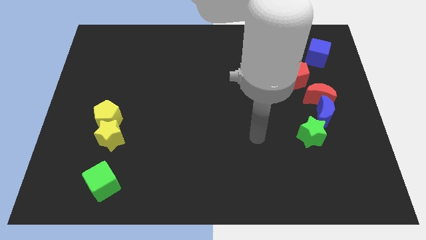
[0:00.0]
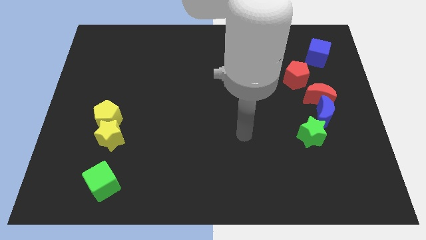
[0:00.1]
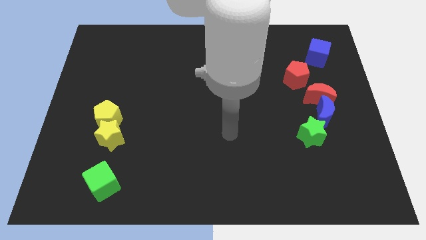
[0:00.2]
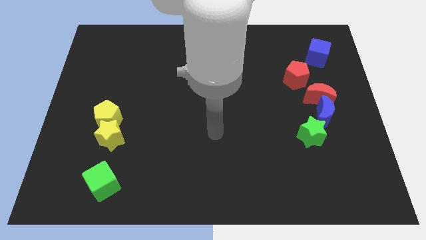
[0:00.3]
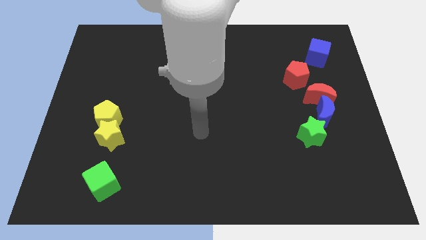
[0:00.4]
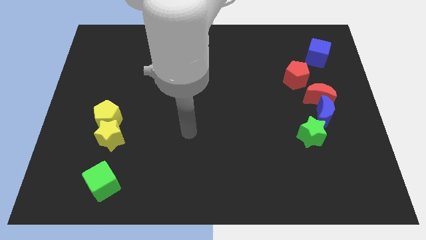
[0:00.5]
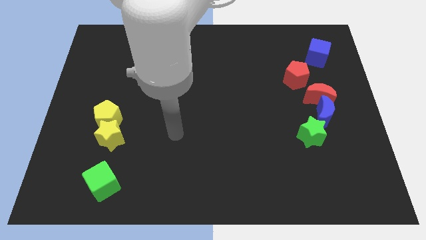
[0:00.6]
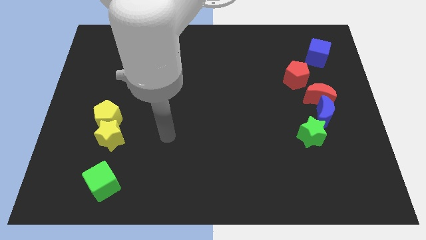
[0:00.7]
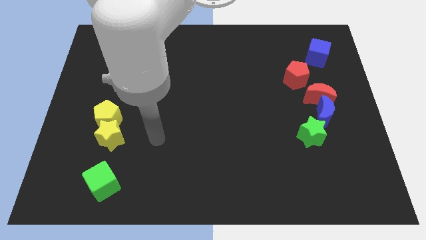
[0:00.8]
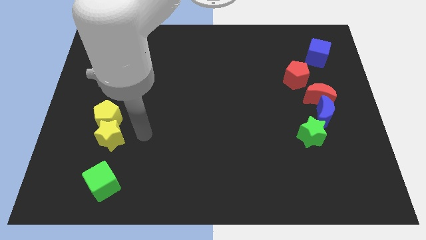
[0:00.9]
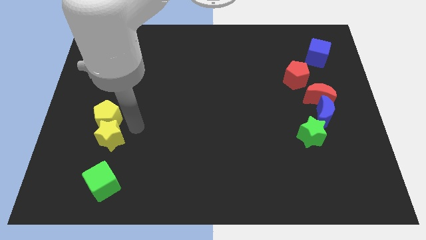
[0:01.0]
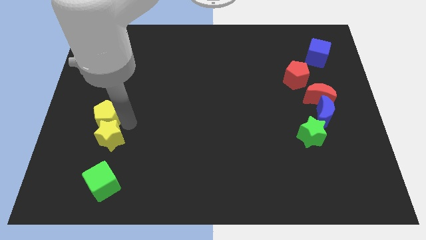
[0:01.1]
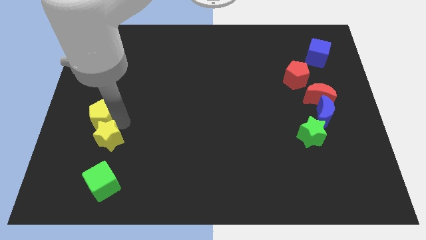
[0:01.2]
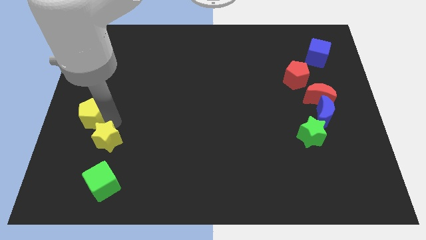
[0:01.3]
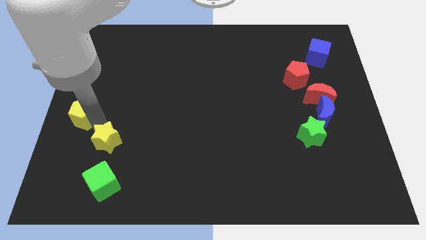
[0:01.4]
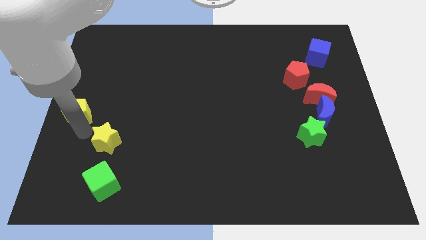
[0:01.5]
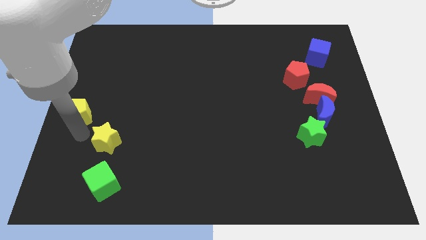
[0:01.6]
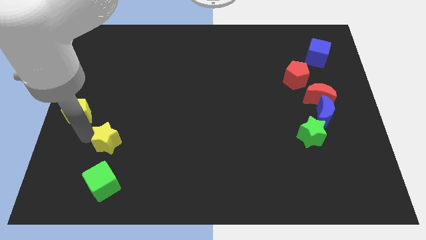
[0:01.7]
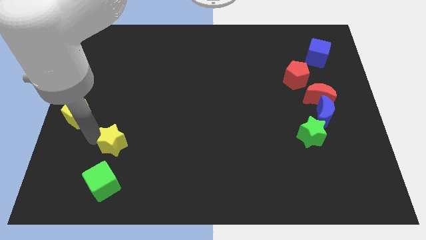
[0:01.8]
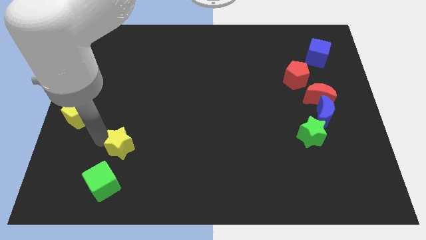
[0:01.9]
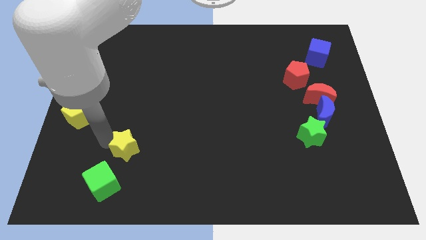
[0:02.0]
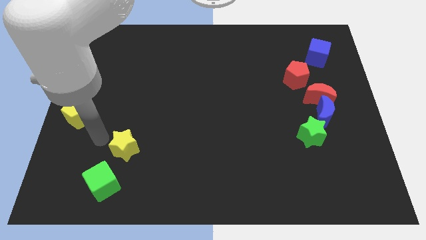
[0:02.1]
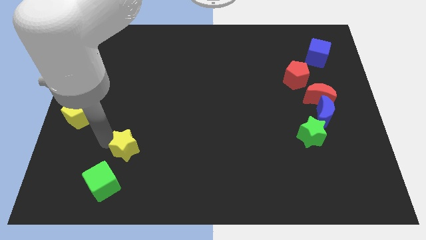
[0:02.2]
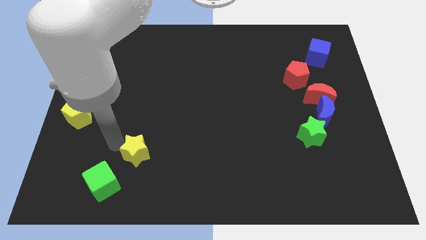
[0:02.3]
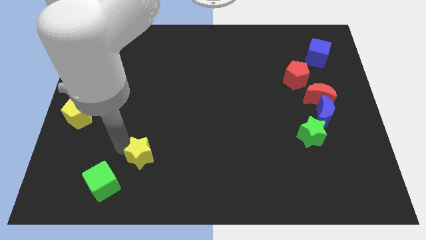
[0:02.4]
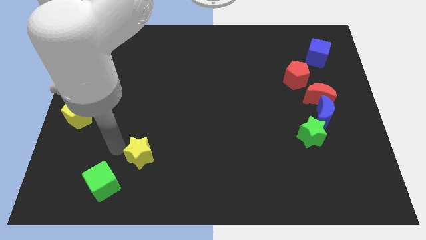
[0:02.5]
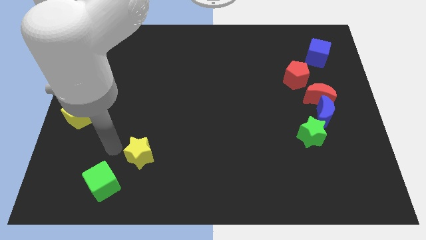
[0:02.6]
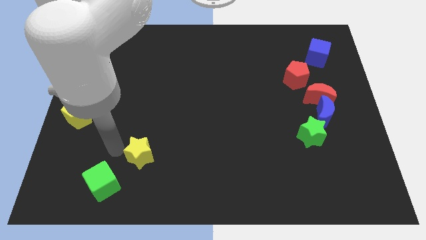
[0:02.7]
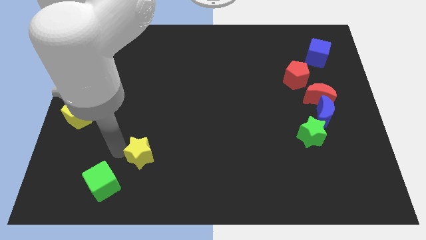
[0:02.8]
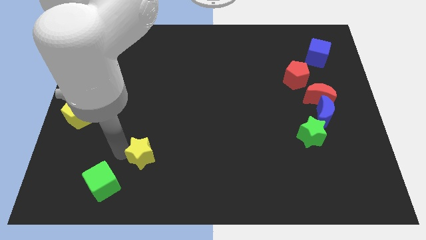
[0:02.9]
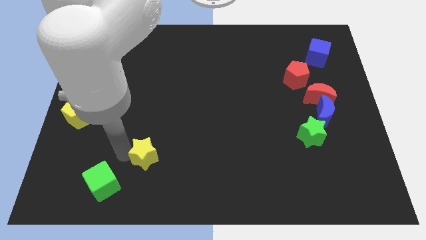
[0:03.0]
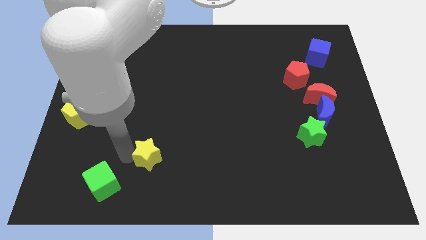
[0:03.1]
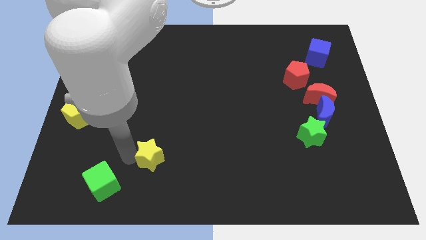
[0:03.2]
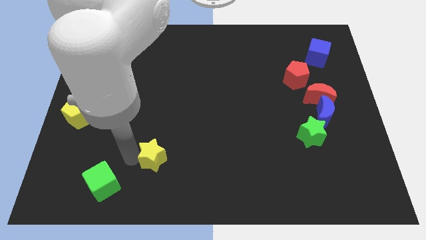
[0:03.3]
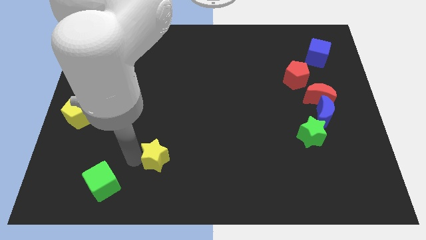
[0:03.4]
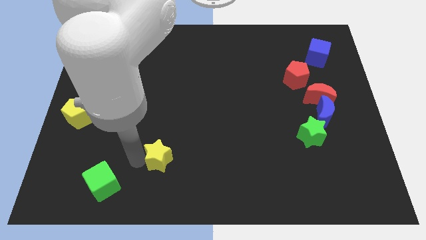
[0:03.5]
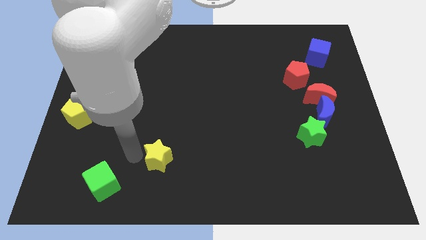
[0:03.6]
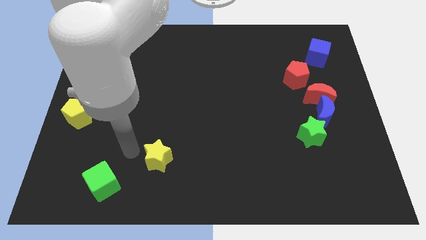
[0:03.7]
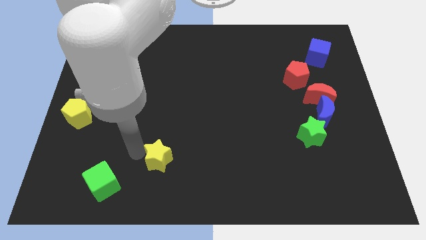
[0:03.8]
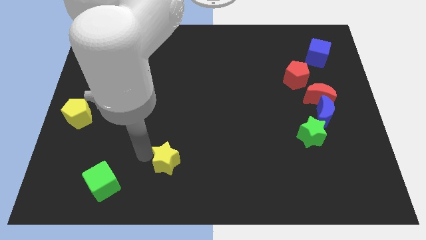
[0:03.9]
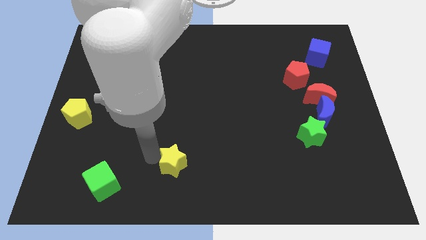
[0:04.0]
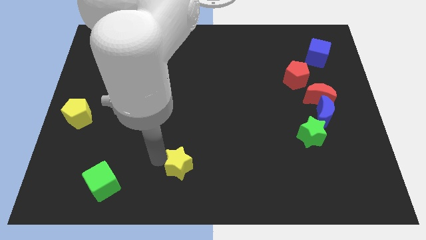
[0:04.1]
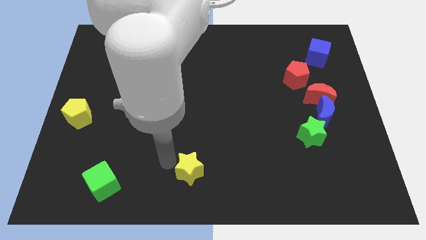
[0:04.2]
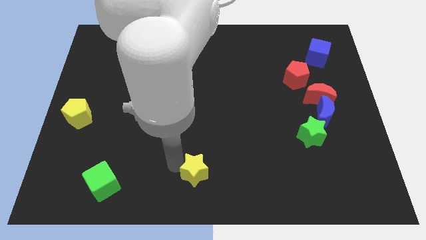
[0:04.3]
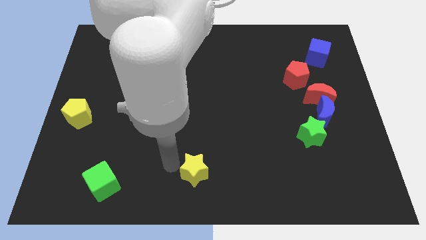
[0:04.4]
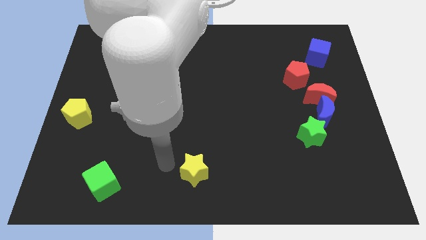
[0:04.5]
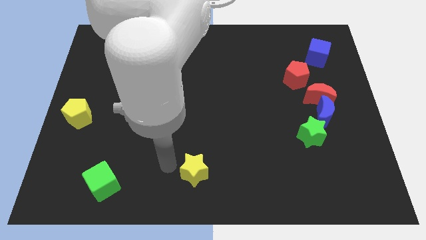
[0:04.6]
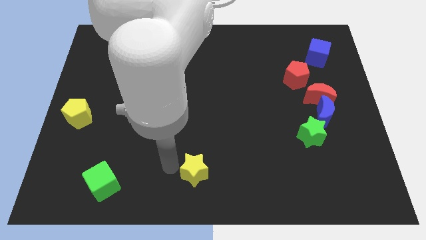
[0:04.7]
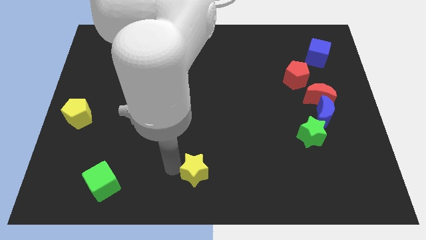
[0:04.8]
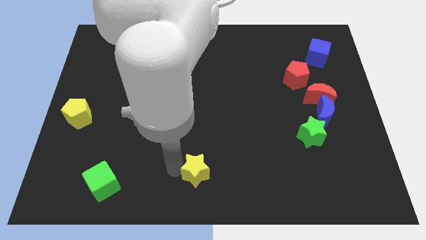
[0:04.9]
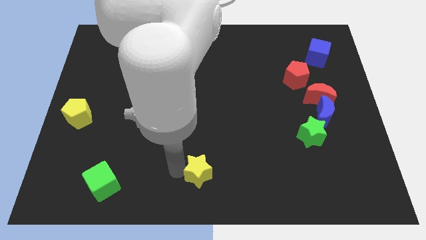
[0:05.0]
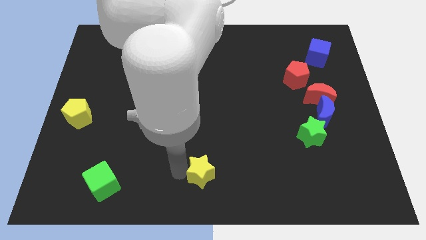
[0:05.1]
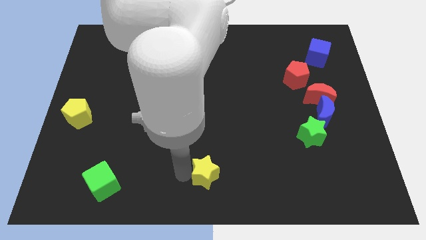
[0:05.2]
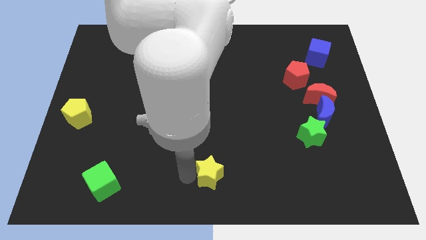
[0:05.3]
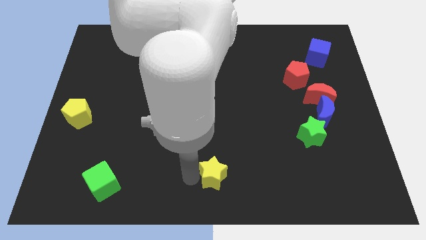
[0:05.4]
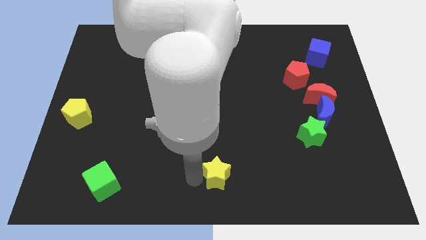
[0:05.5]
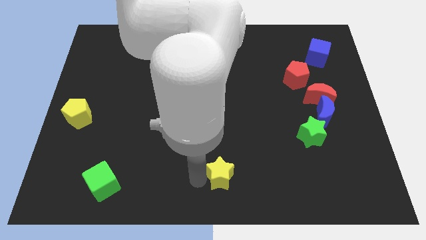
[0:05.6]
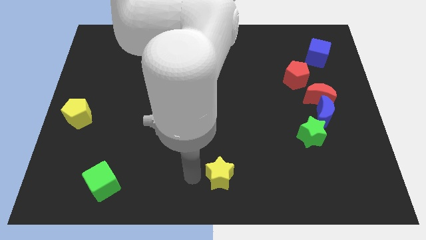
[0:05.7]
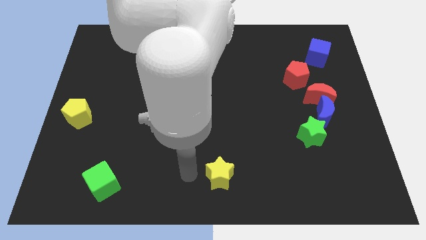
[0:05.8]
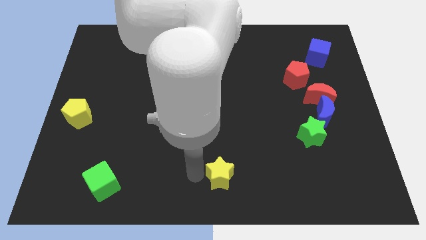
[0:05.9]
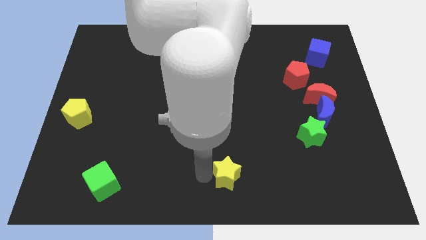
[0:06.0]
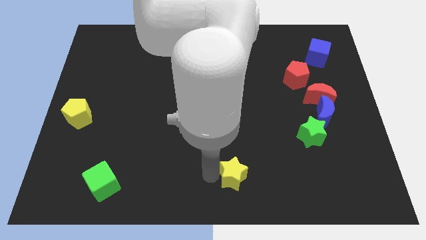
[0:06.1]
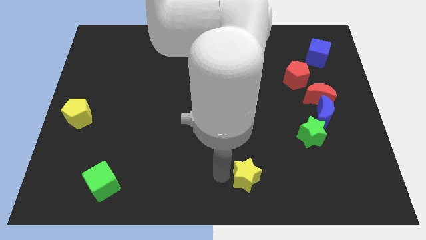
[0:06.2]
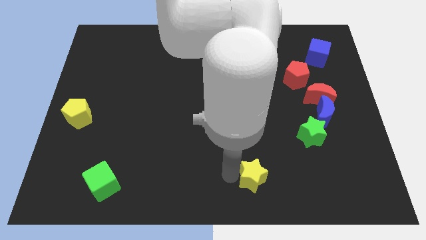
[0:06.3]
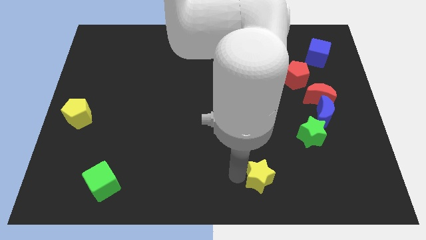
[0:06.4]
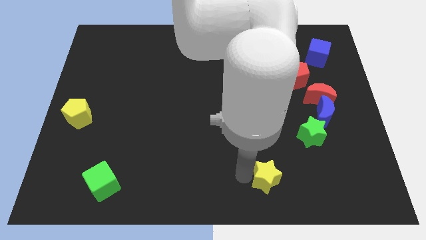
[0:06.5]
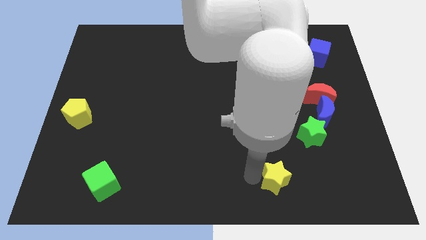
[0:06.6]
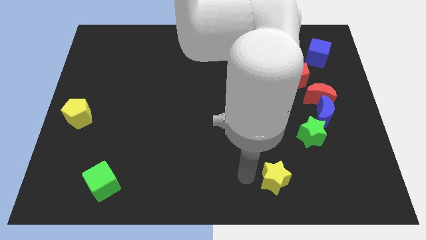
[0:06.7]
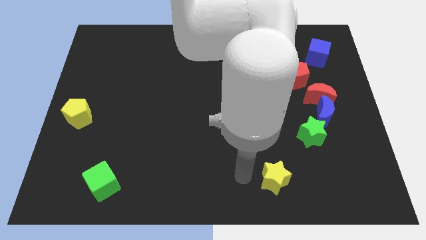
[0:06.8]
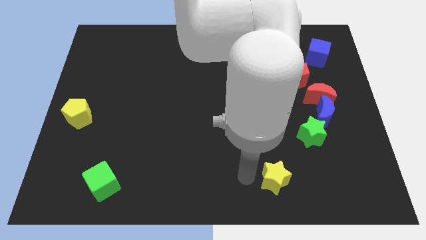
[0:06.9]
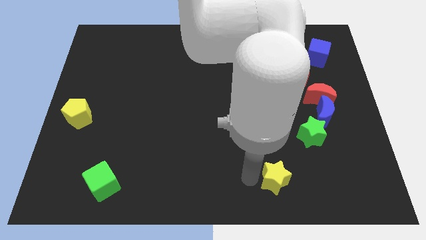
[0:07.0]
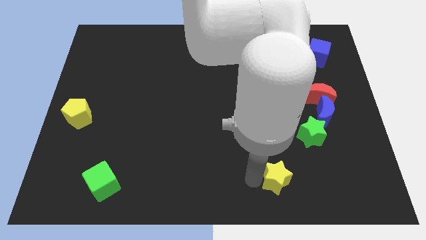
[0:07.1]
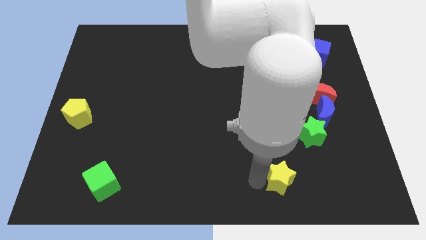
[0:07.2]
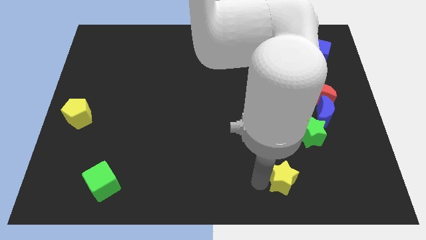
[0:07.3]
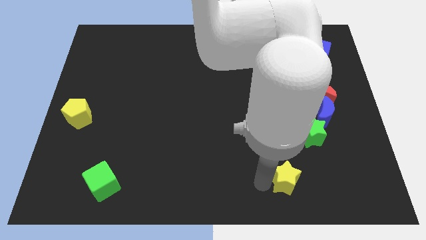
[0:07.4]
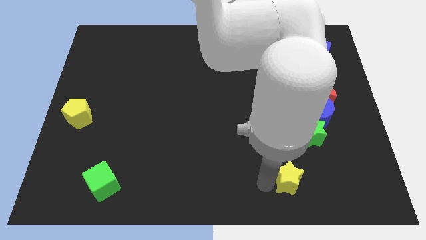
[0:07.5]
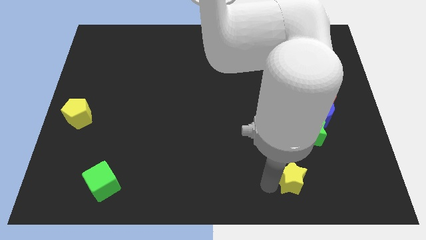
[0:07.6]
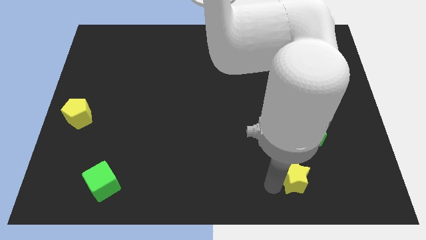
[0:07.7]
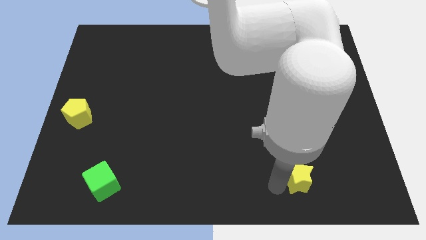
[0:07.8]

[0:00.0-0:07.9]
push the yellow star to the bottom side of the green star
